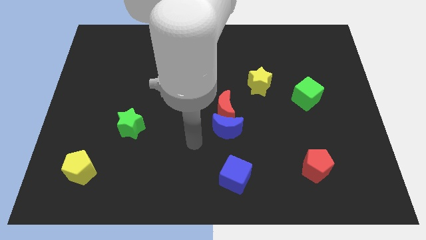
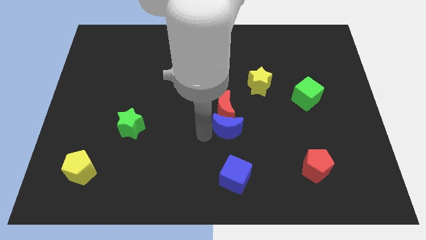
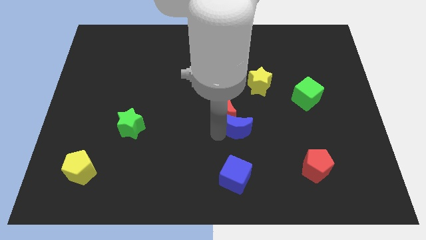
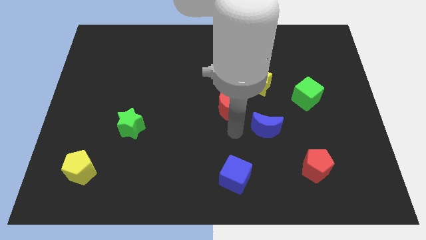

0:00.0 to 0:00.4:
separate the red moon from the blue moon

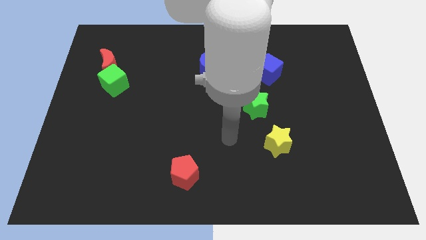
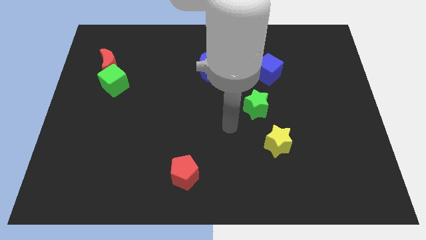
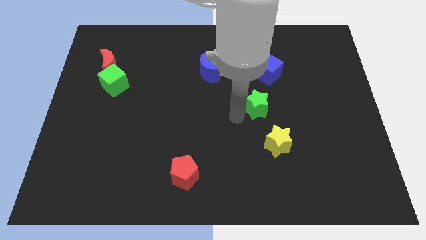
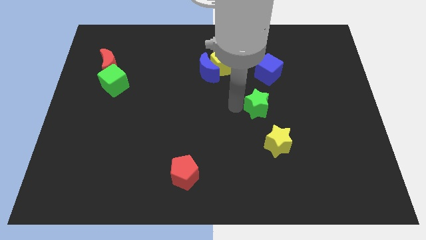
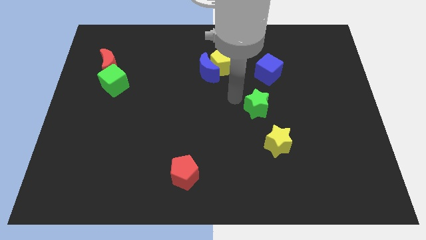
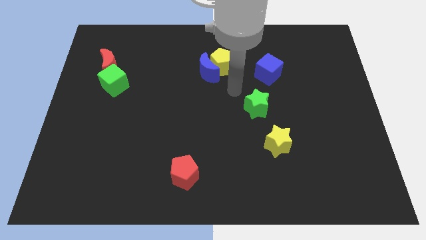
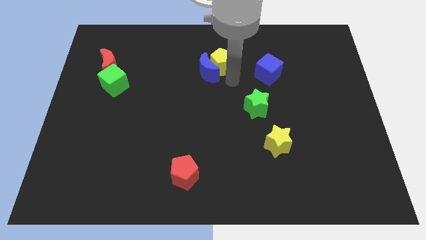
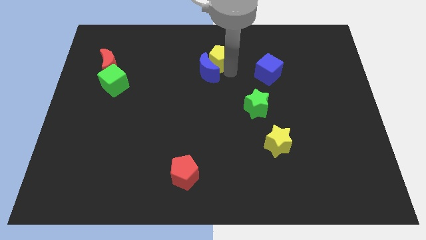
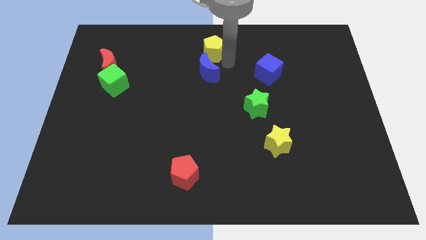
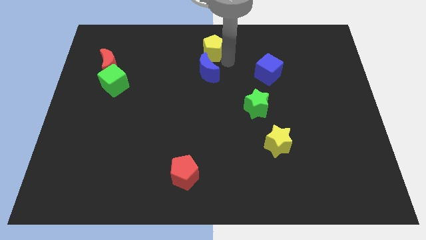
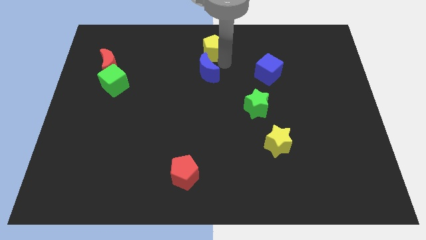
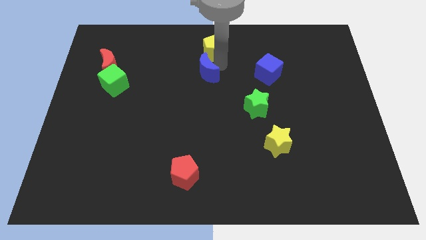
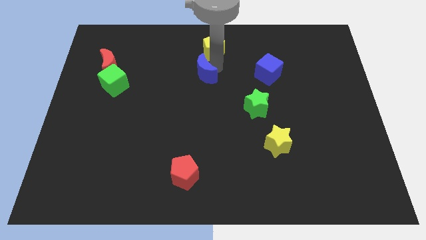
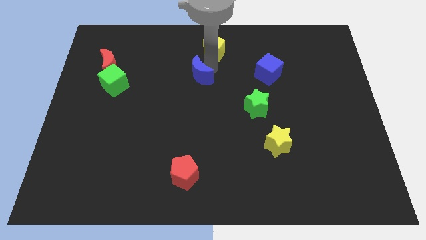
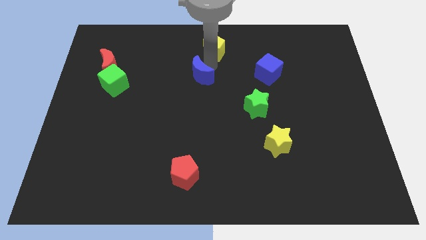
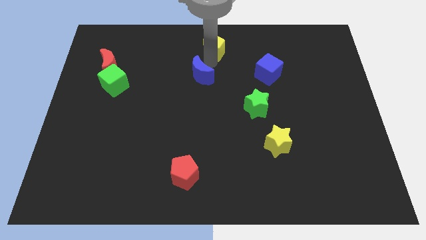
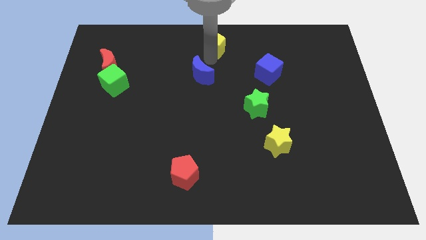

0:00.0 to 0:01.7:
pull the blue moon apart from the yellow pentagon

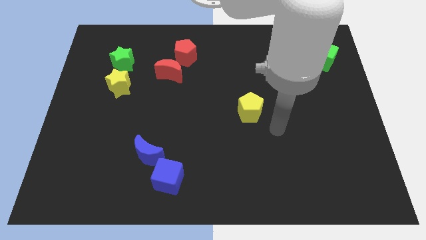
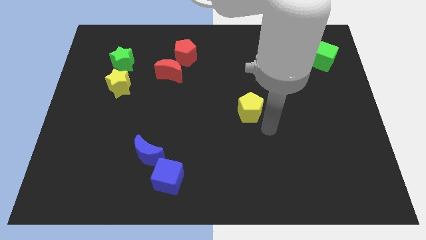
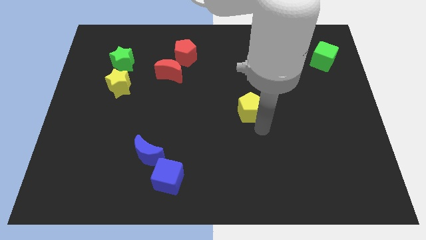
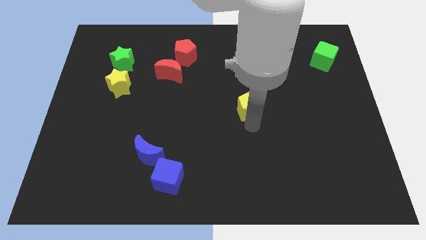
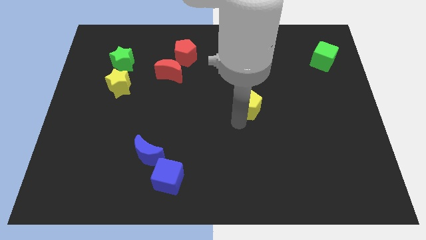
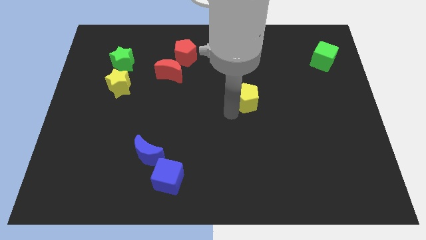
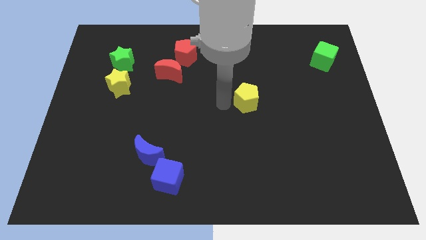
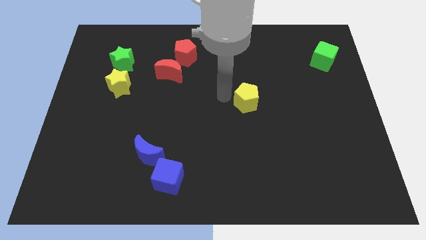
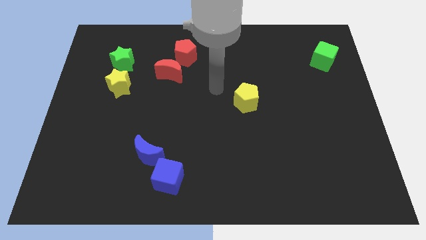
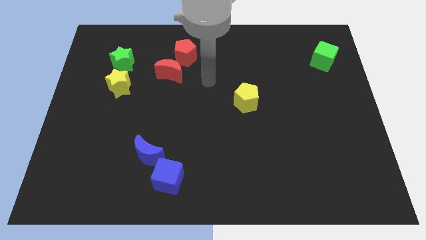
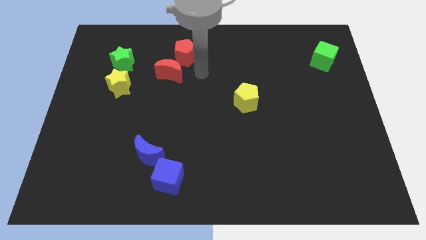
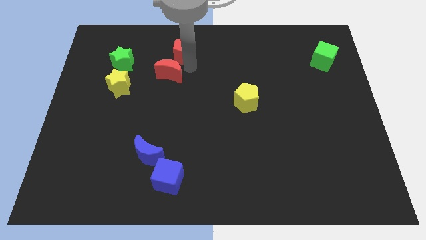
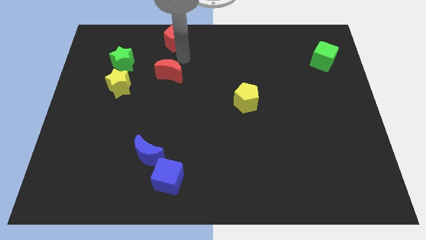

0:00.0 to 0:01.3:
move the red moon away from the red pentagon

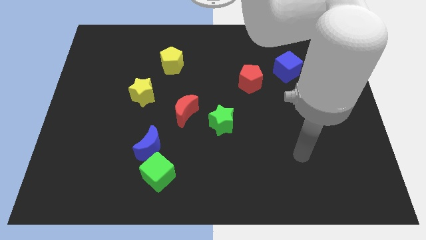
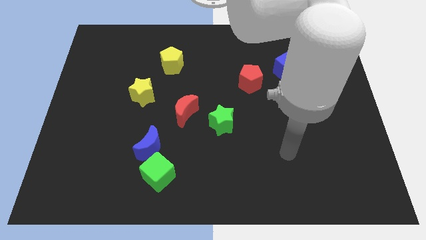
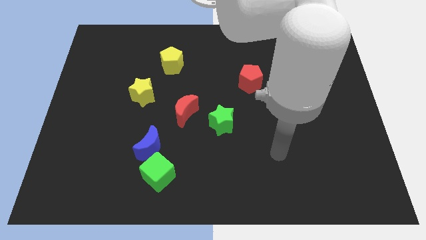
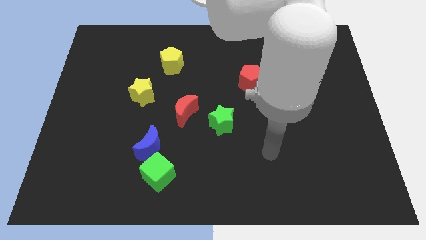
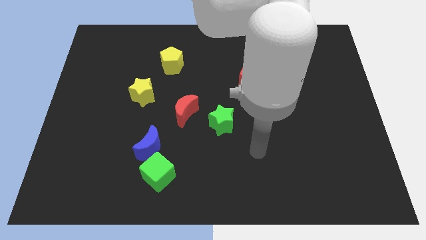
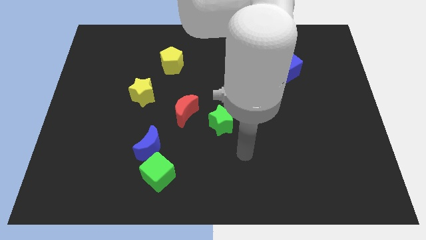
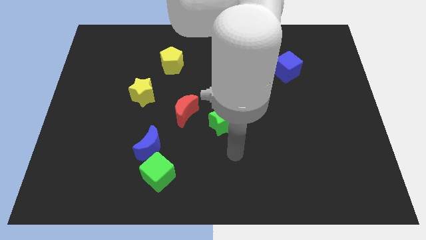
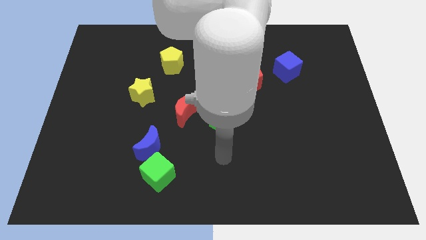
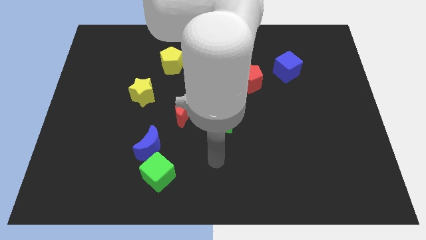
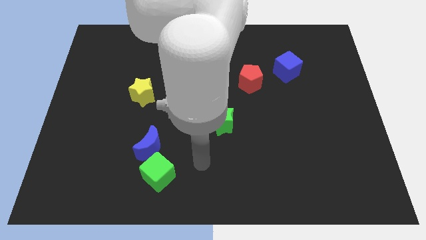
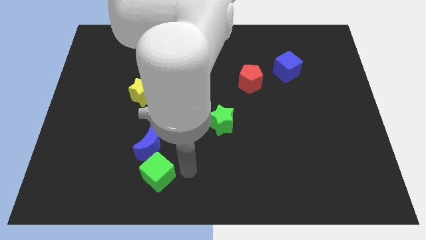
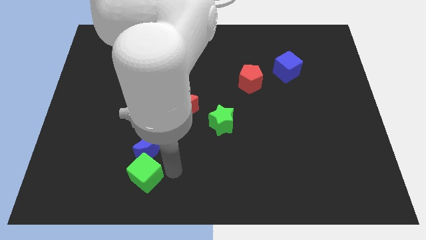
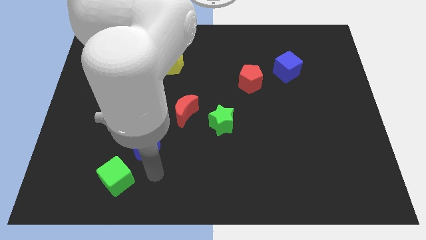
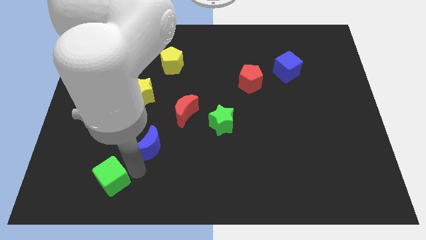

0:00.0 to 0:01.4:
move the blue moon away from the green cube

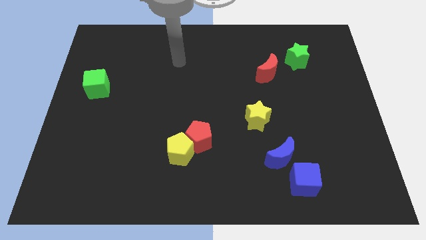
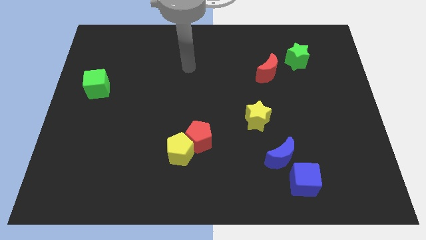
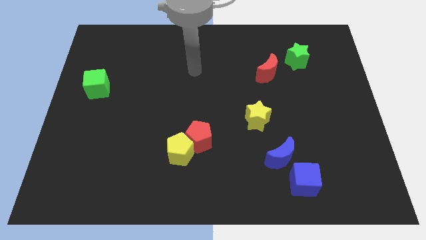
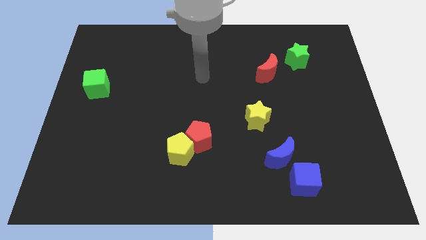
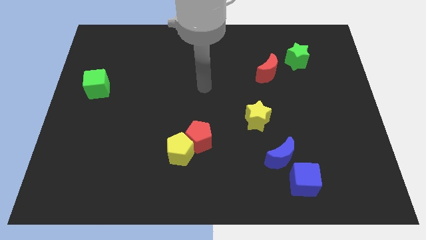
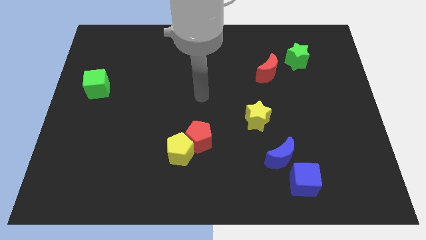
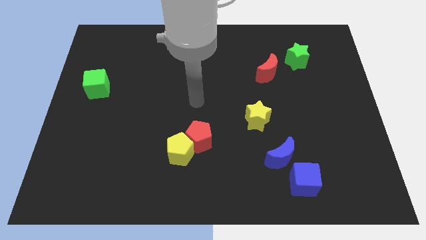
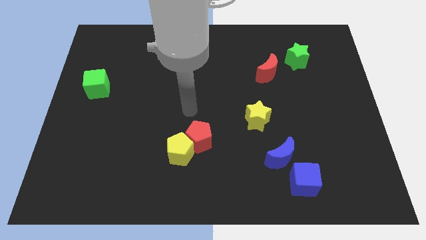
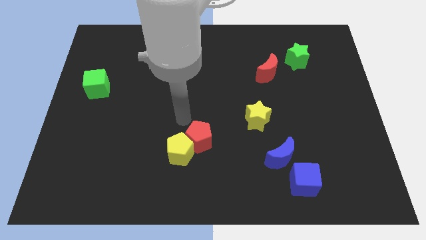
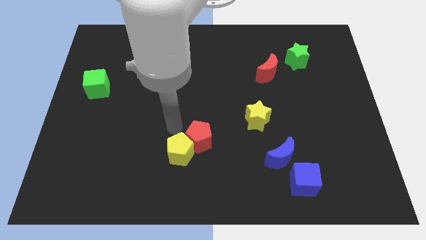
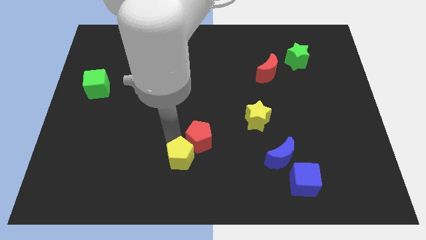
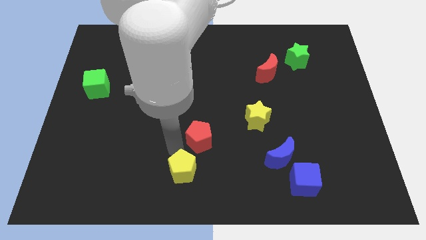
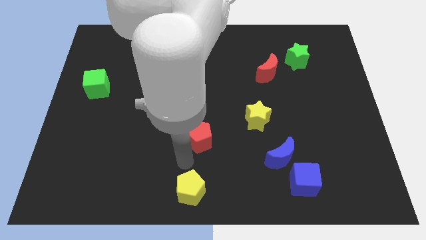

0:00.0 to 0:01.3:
separate the red pentagon from the yellow pentagon

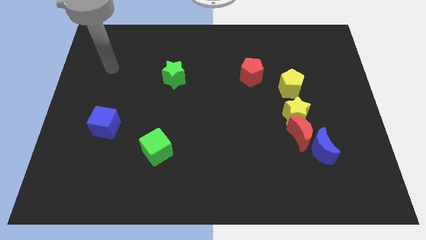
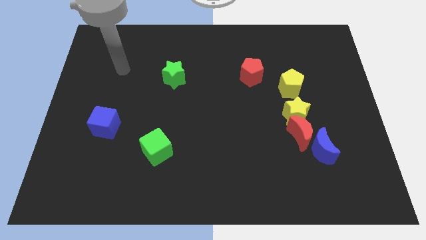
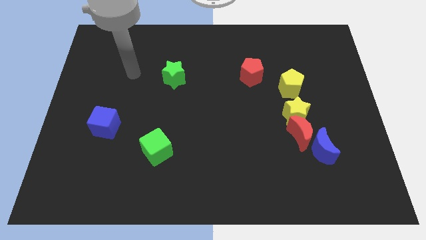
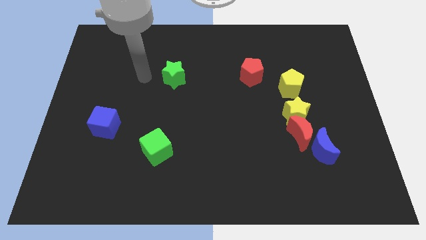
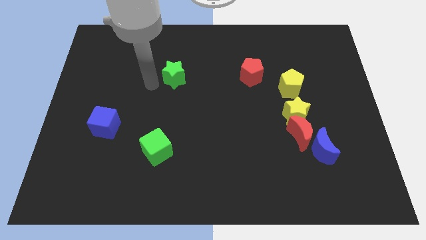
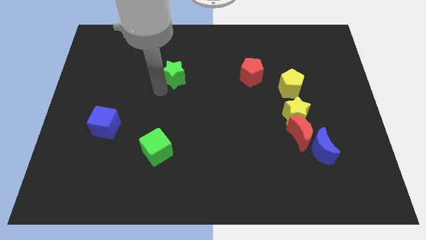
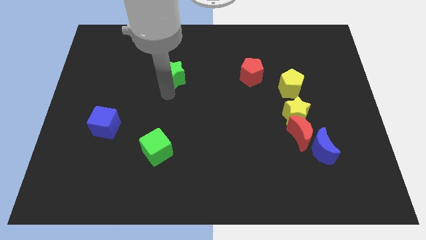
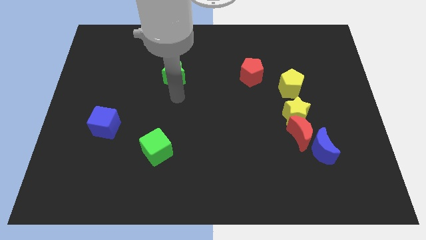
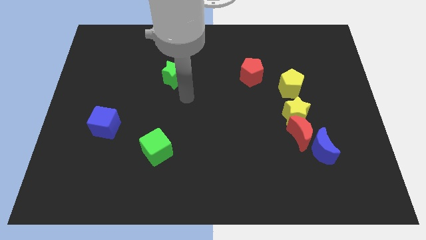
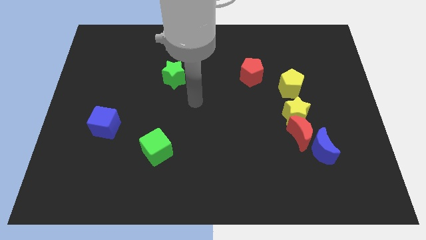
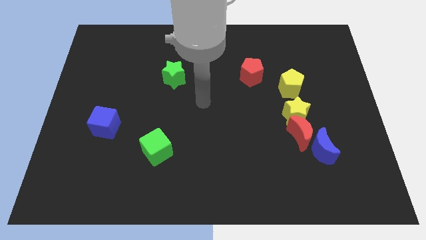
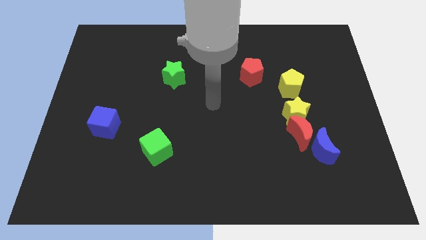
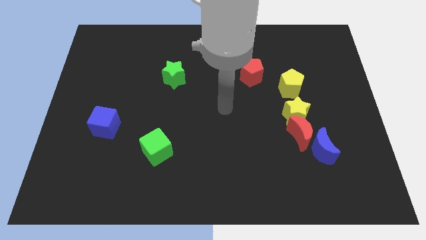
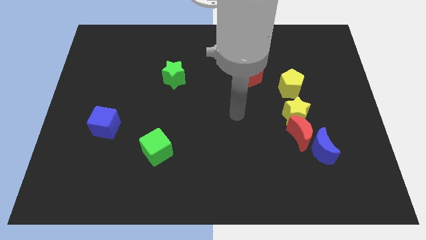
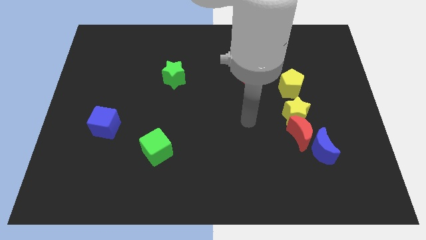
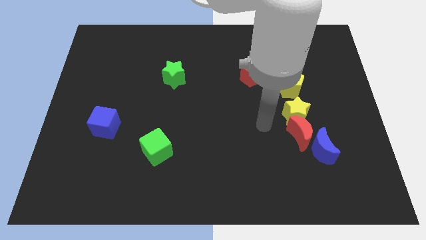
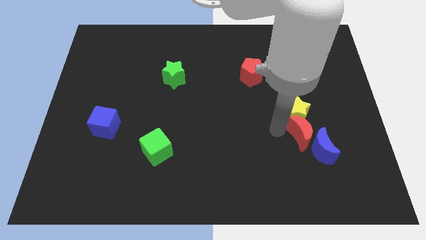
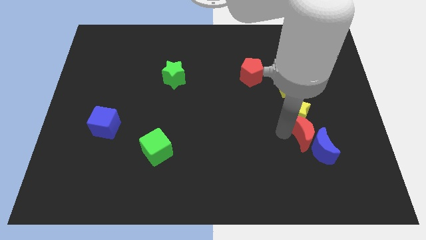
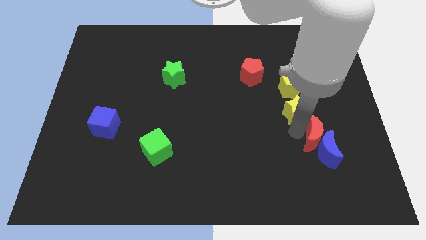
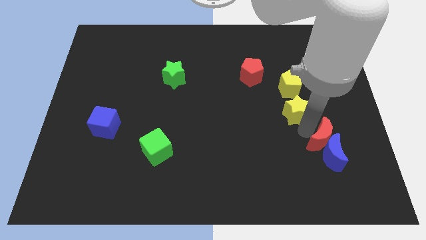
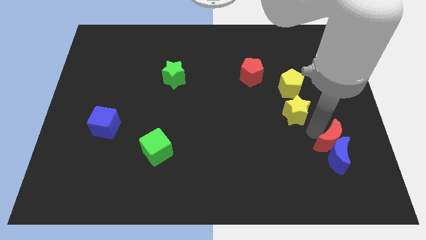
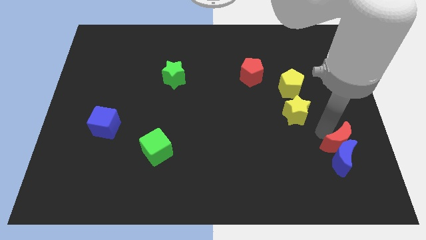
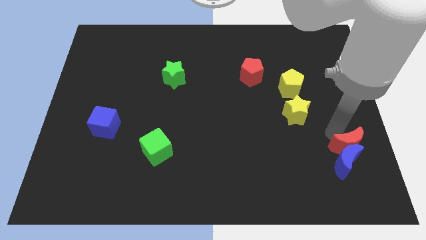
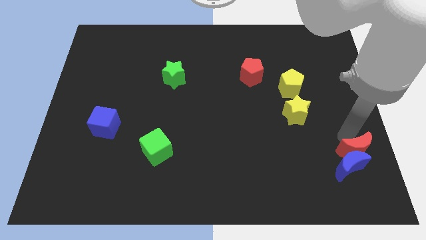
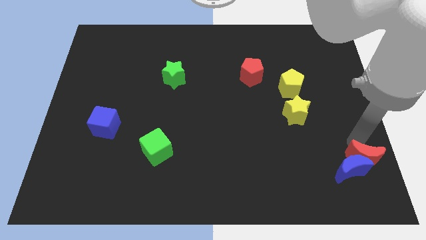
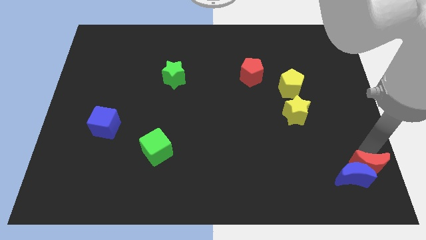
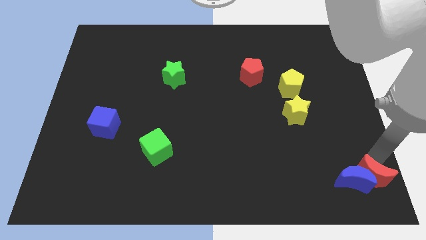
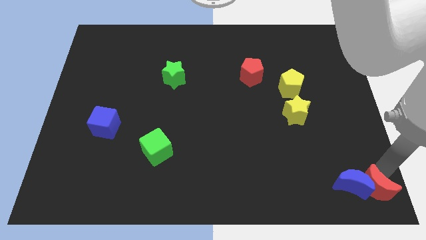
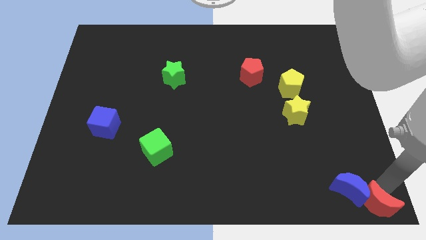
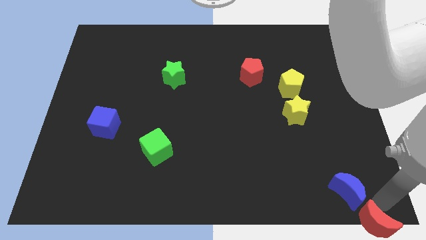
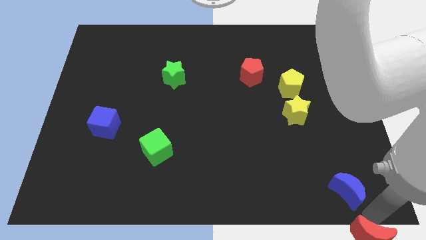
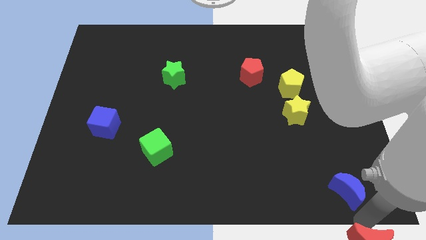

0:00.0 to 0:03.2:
pull the blue moon apart from the red moon
